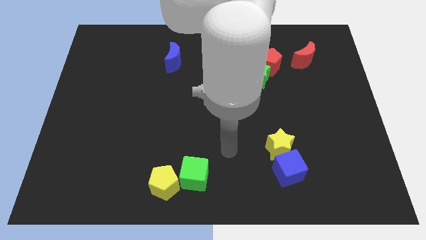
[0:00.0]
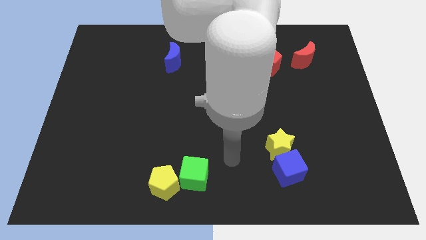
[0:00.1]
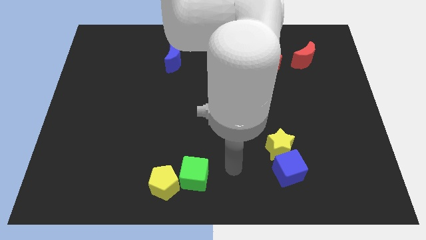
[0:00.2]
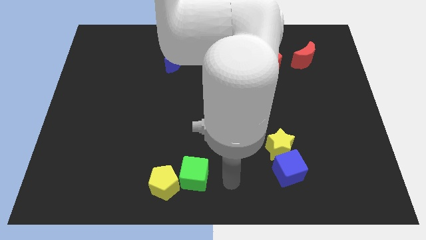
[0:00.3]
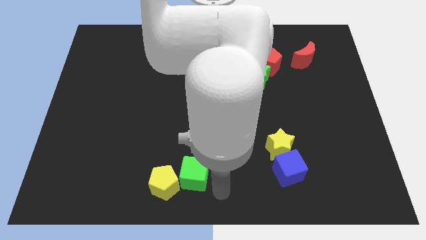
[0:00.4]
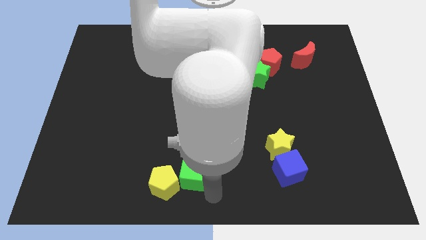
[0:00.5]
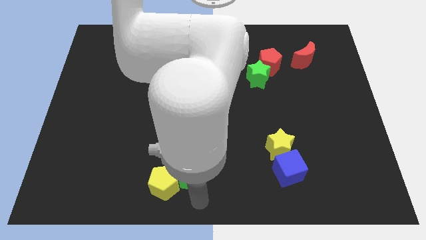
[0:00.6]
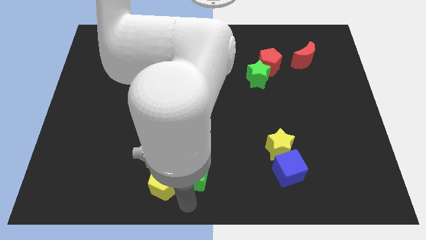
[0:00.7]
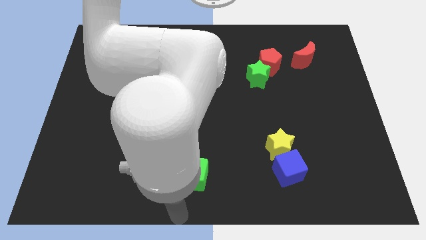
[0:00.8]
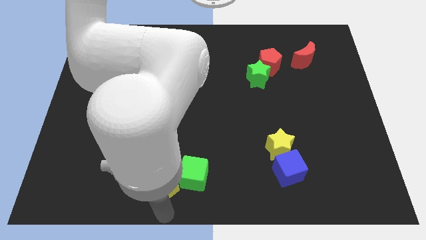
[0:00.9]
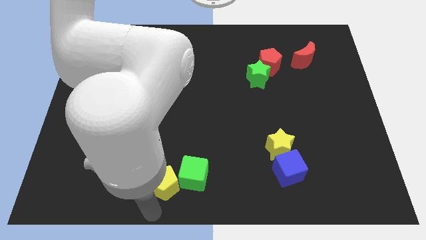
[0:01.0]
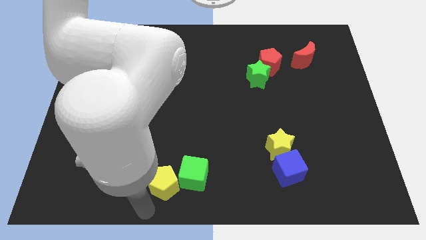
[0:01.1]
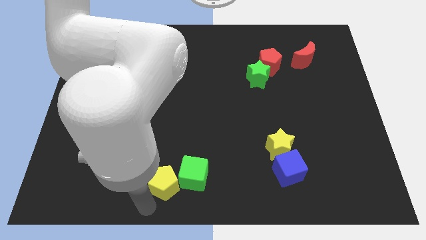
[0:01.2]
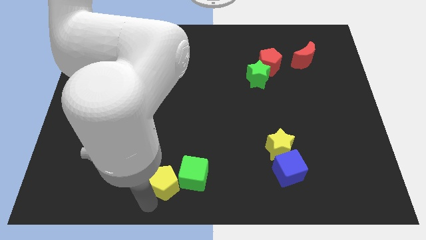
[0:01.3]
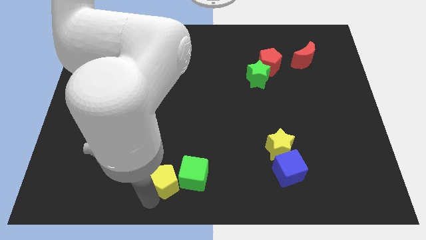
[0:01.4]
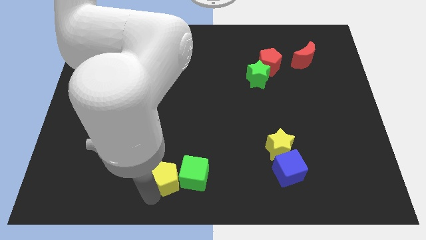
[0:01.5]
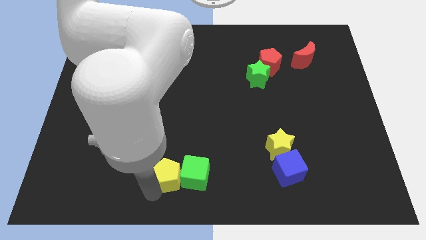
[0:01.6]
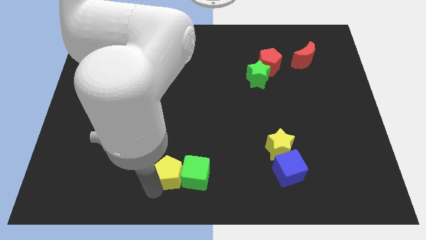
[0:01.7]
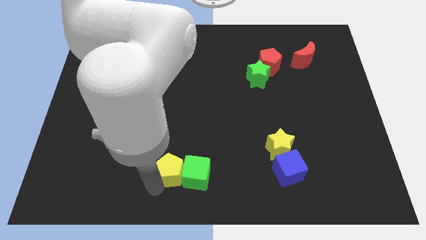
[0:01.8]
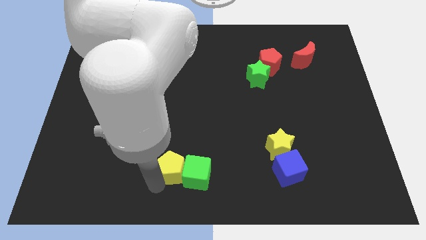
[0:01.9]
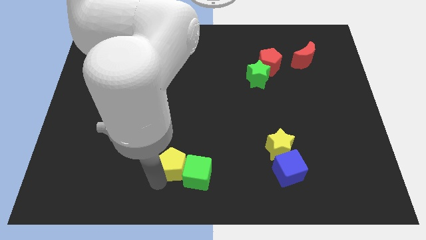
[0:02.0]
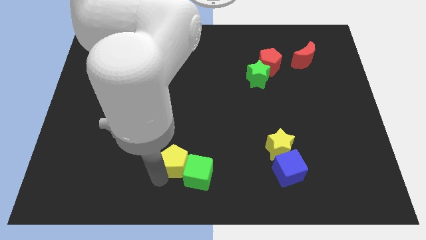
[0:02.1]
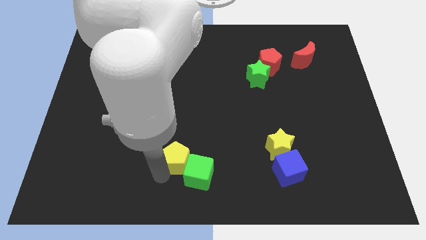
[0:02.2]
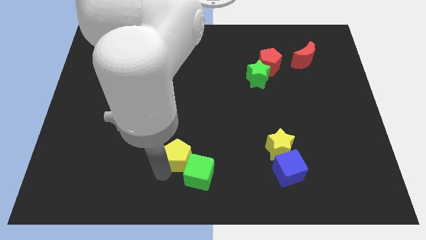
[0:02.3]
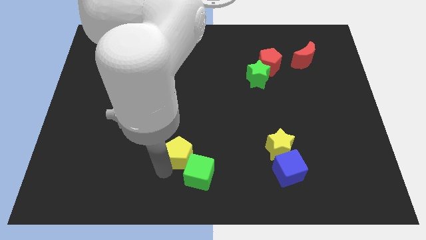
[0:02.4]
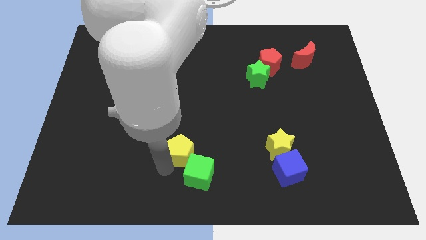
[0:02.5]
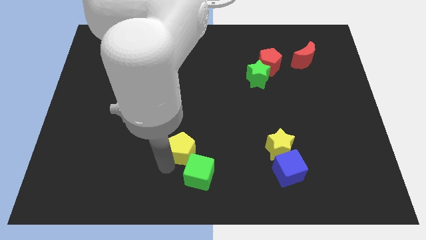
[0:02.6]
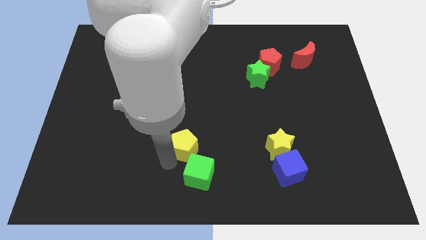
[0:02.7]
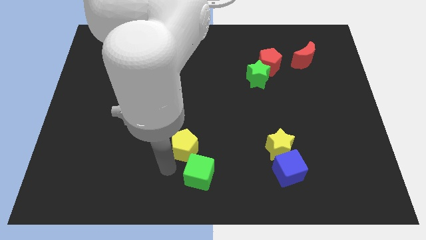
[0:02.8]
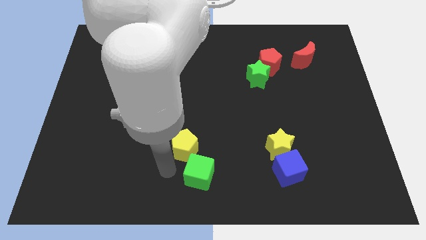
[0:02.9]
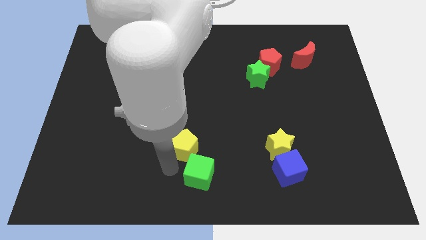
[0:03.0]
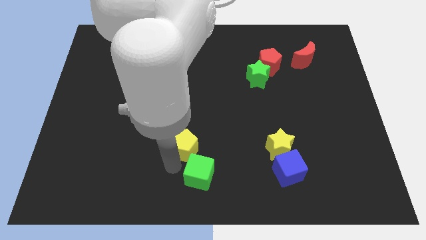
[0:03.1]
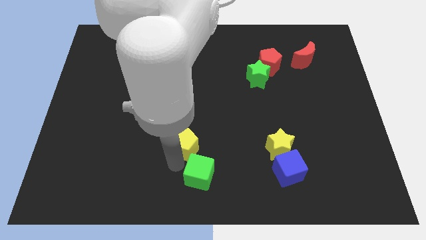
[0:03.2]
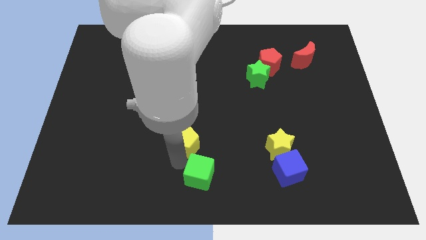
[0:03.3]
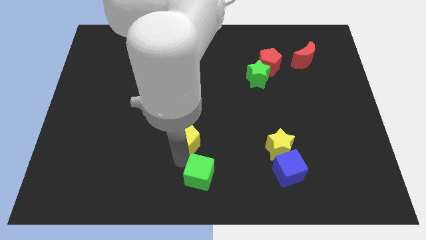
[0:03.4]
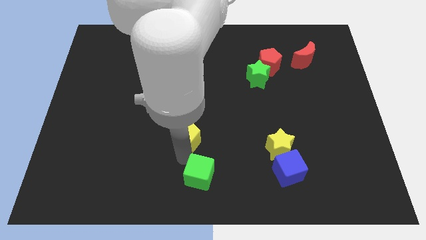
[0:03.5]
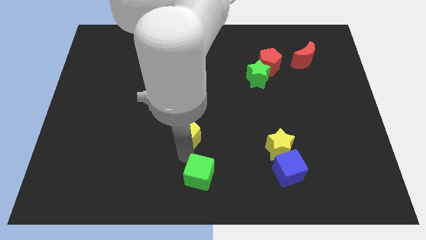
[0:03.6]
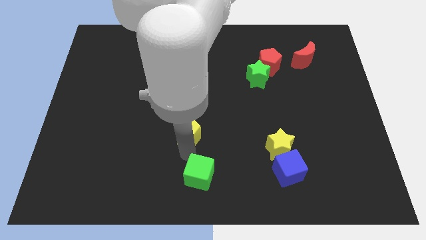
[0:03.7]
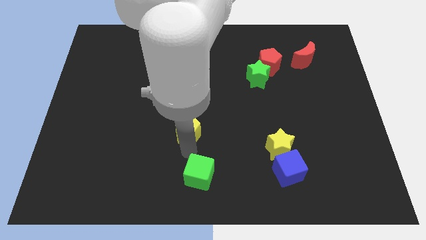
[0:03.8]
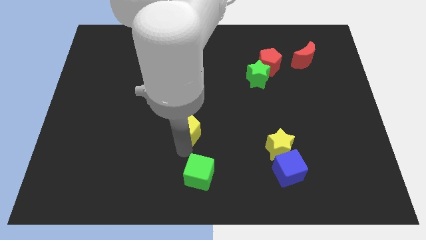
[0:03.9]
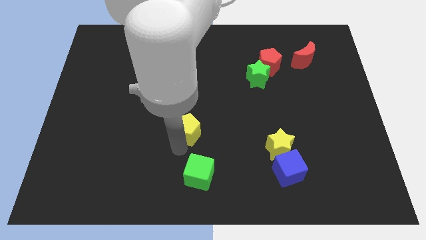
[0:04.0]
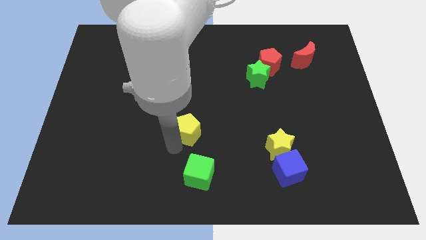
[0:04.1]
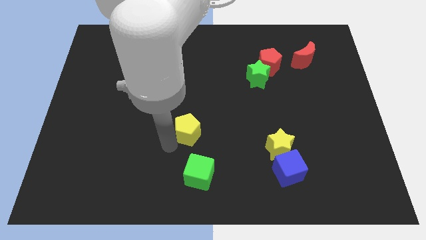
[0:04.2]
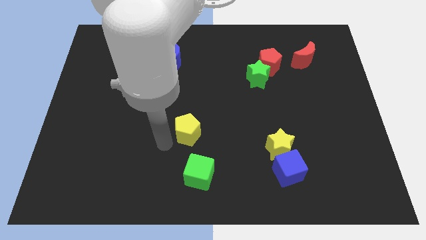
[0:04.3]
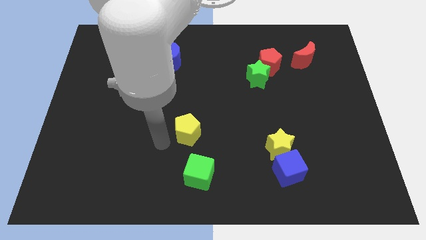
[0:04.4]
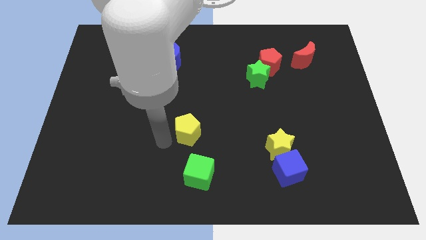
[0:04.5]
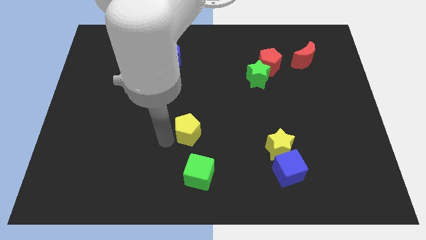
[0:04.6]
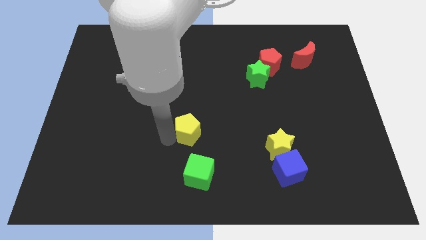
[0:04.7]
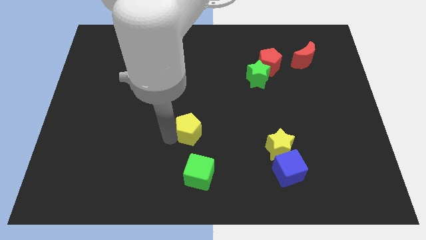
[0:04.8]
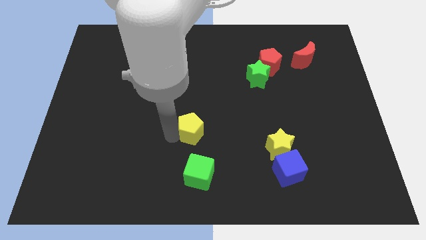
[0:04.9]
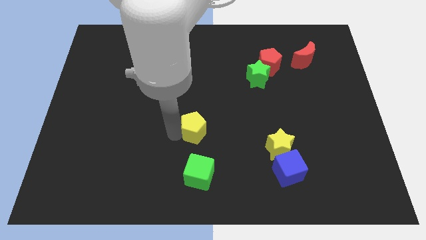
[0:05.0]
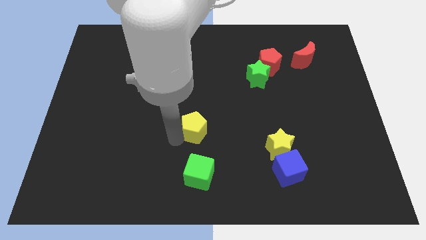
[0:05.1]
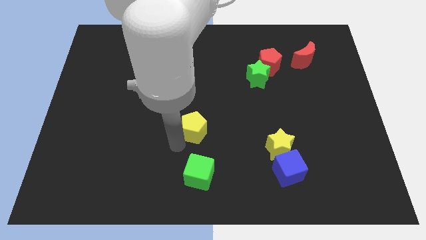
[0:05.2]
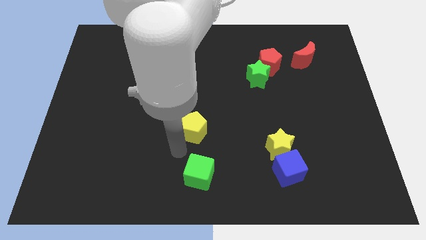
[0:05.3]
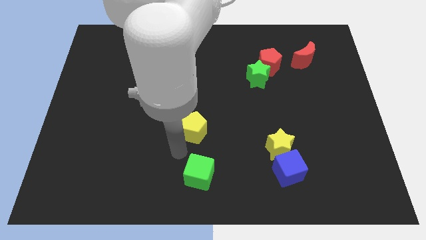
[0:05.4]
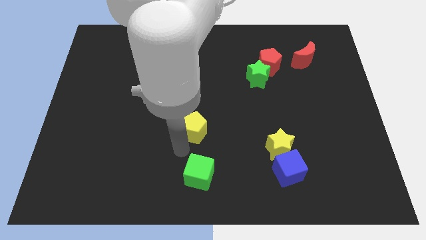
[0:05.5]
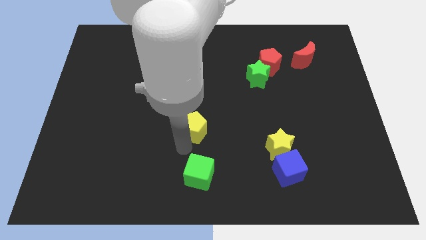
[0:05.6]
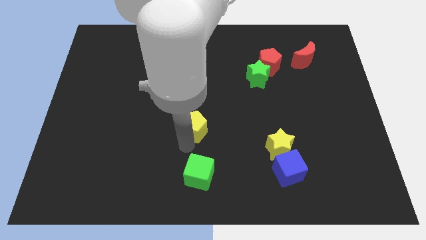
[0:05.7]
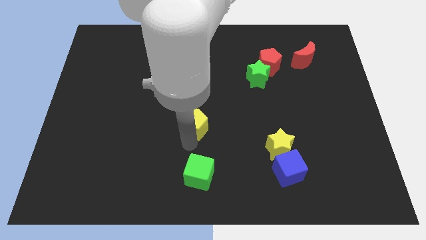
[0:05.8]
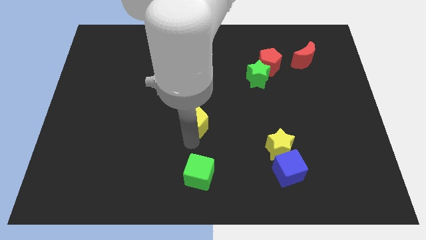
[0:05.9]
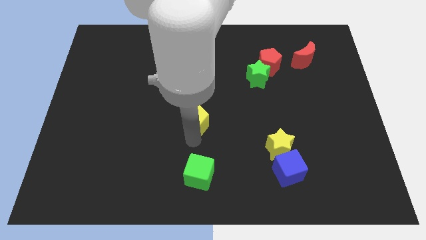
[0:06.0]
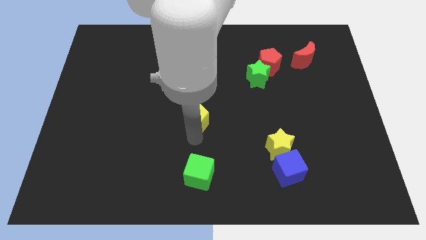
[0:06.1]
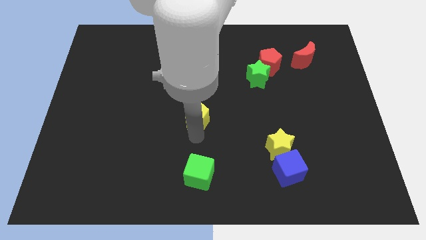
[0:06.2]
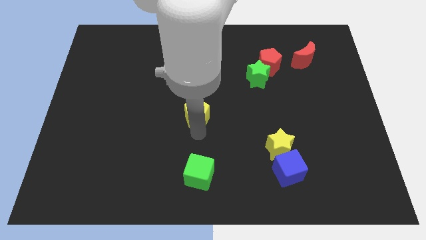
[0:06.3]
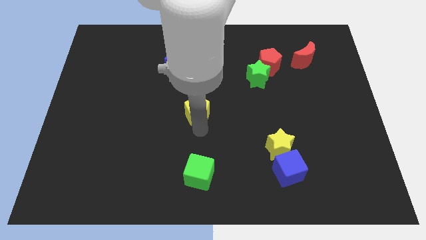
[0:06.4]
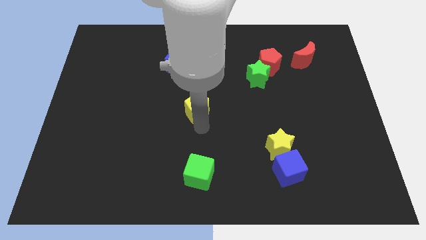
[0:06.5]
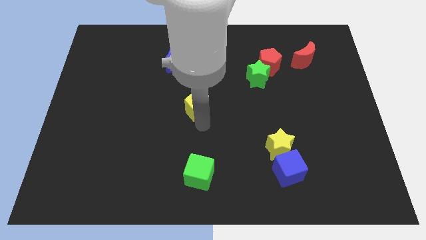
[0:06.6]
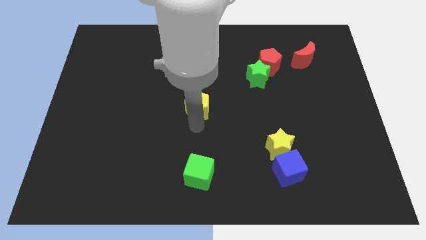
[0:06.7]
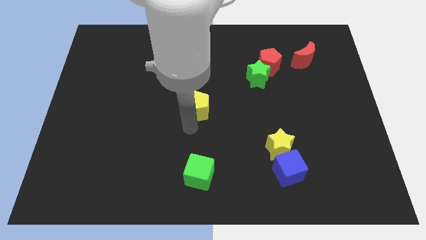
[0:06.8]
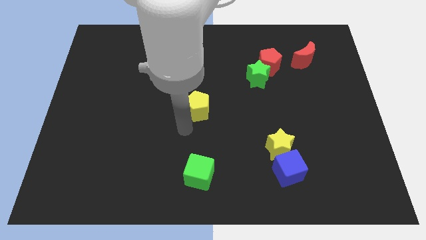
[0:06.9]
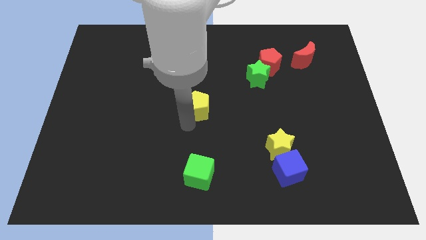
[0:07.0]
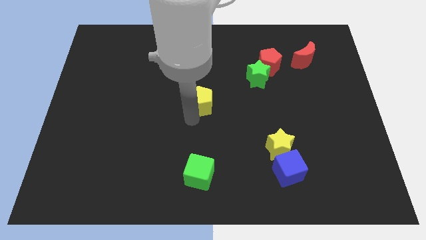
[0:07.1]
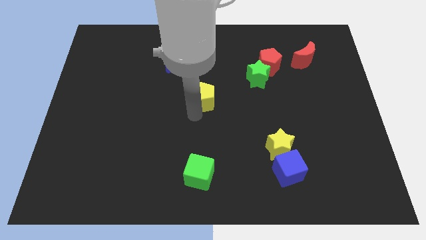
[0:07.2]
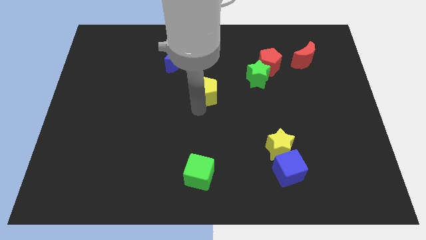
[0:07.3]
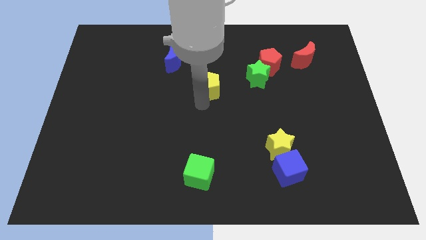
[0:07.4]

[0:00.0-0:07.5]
push the yellow pentagon to the left side of the green star
